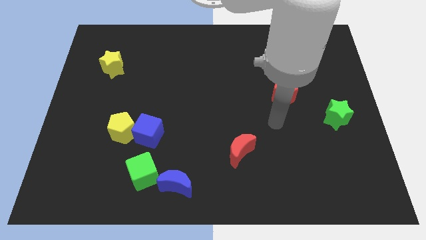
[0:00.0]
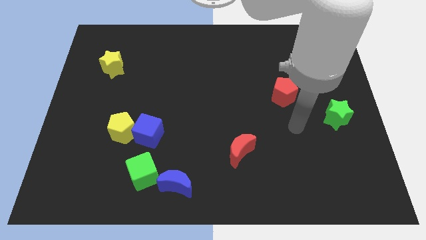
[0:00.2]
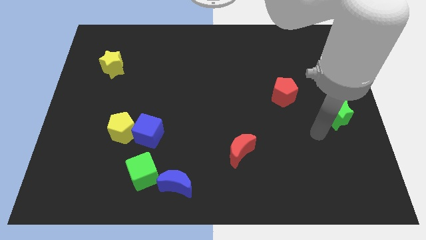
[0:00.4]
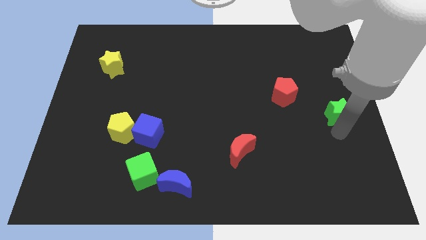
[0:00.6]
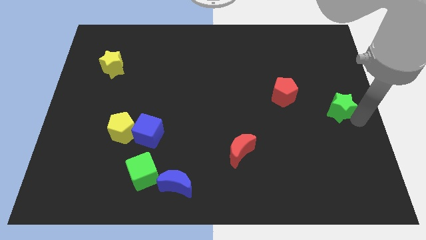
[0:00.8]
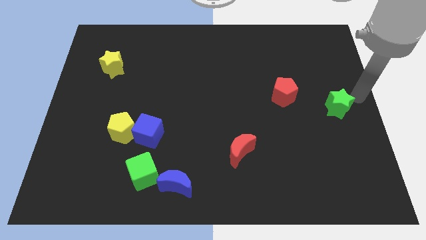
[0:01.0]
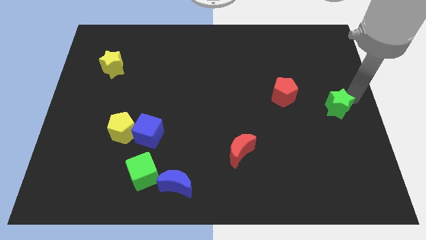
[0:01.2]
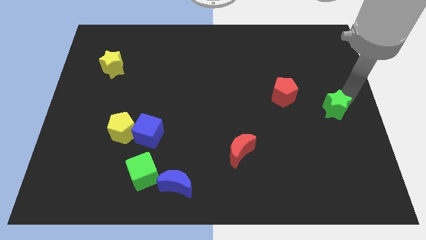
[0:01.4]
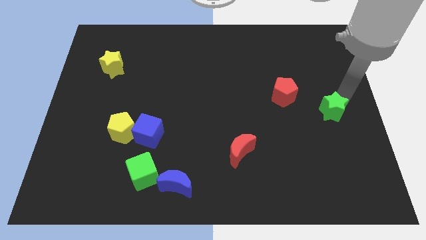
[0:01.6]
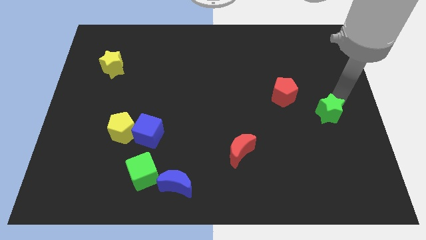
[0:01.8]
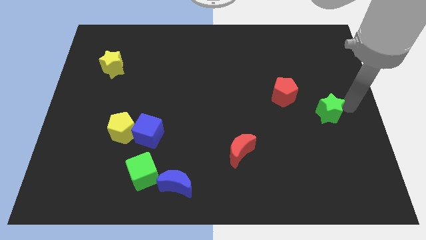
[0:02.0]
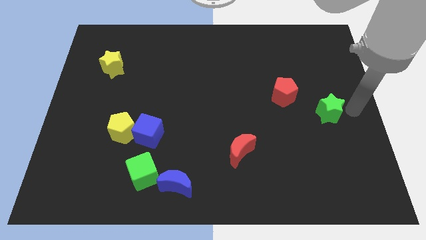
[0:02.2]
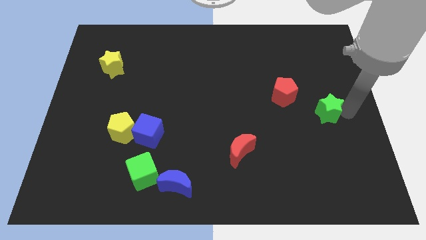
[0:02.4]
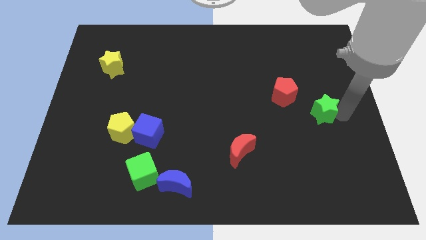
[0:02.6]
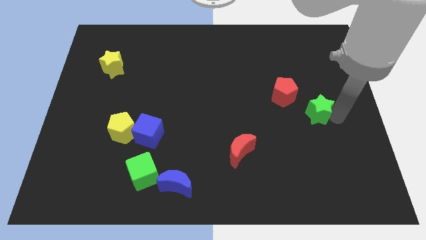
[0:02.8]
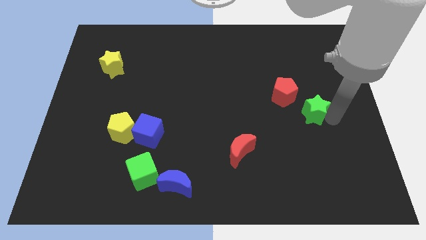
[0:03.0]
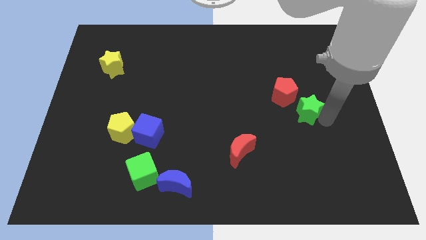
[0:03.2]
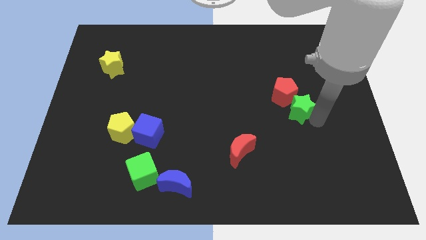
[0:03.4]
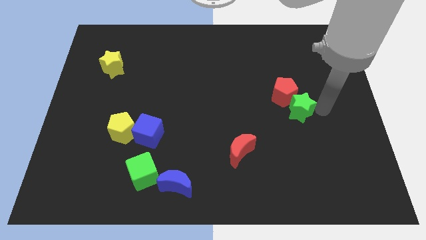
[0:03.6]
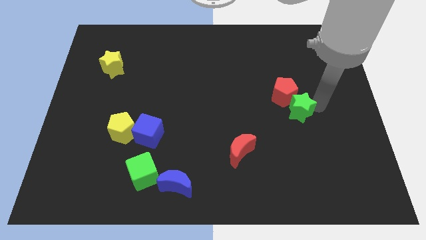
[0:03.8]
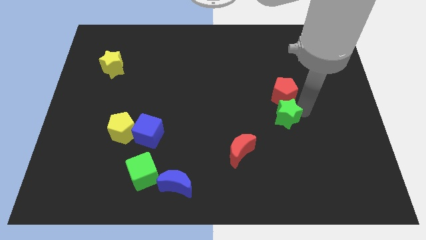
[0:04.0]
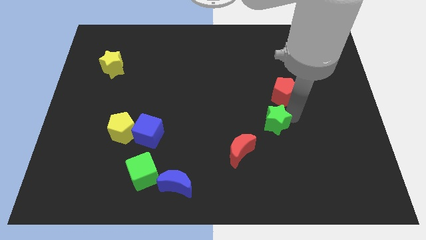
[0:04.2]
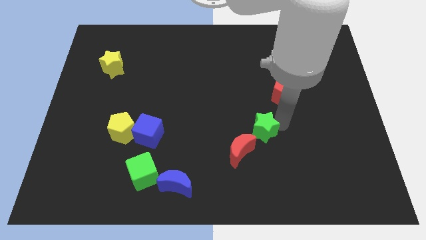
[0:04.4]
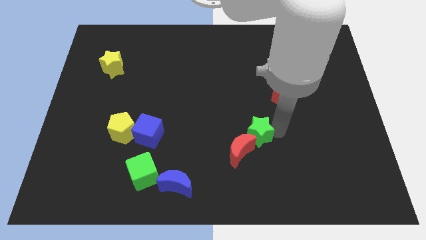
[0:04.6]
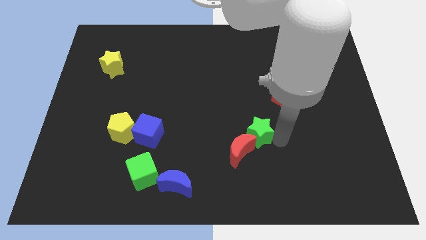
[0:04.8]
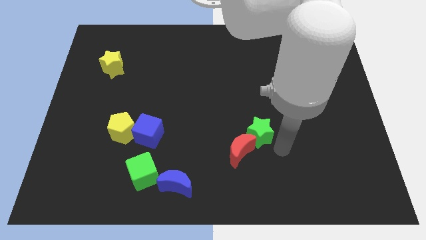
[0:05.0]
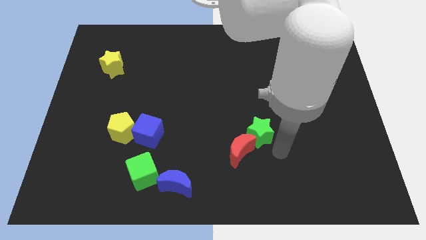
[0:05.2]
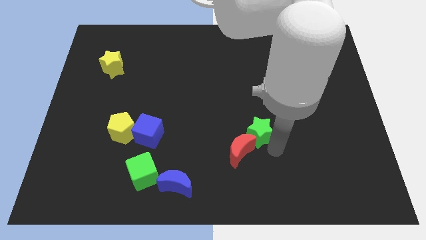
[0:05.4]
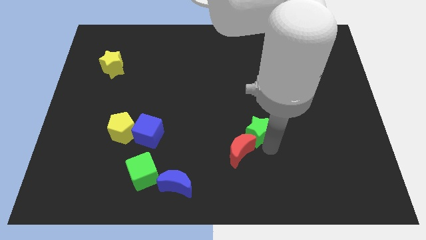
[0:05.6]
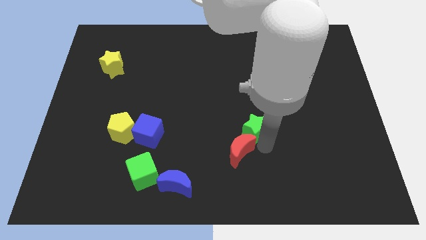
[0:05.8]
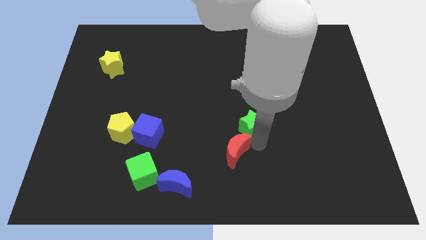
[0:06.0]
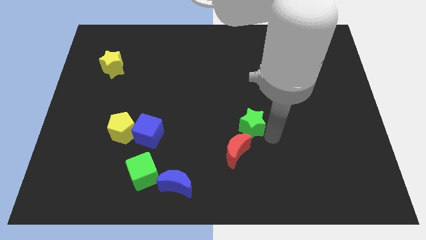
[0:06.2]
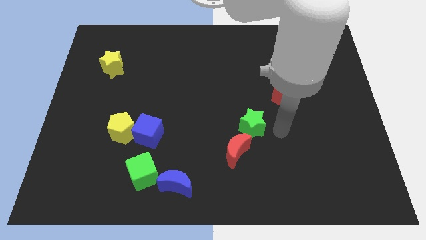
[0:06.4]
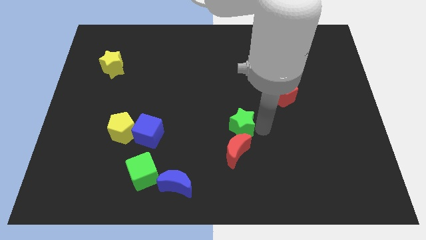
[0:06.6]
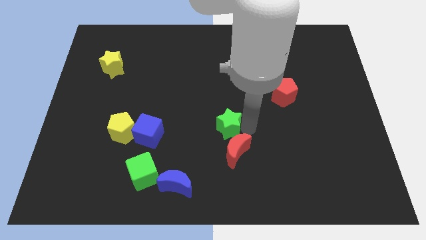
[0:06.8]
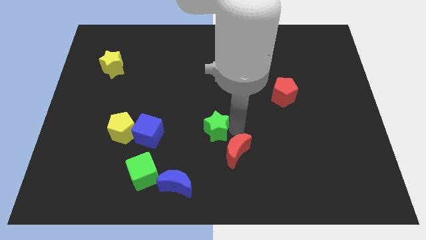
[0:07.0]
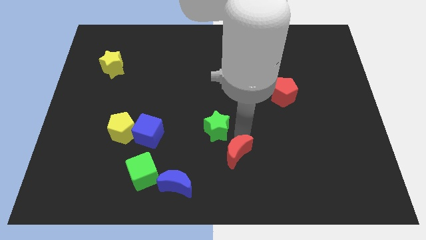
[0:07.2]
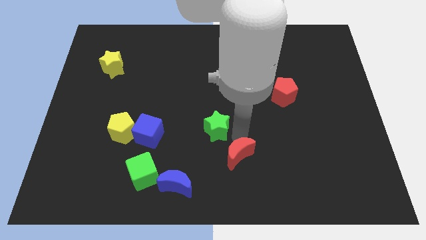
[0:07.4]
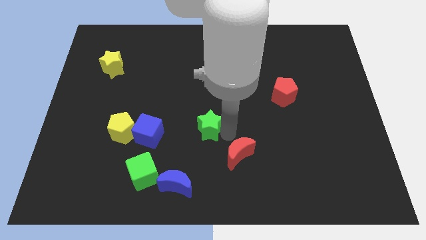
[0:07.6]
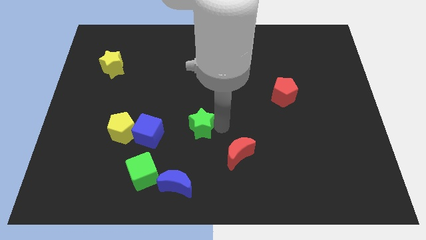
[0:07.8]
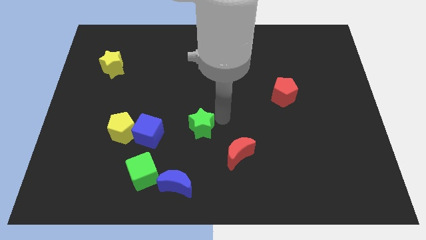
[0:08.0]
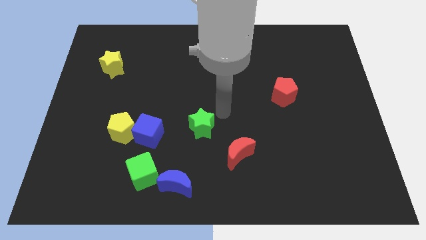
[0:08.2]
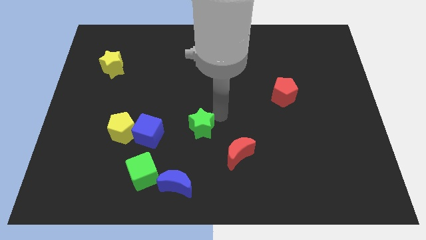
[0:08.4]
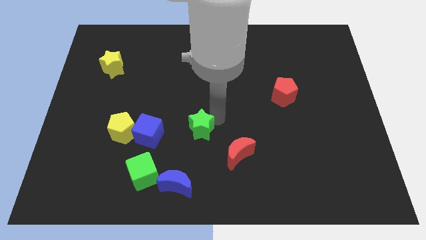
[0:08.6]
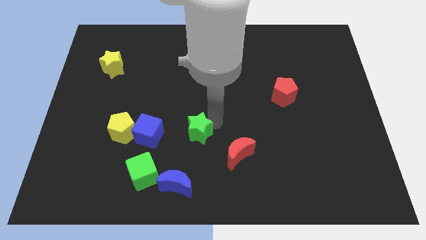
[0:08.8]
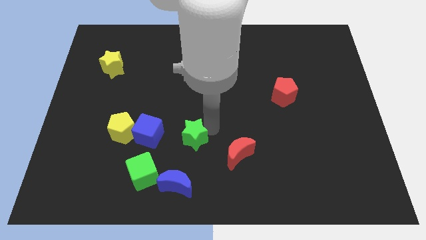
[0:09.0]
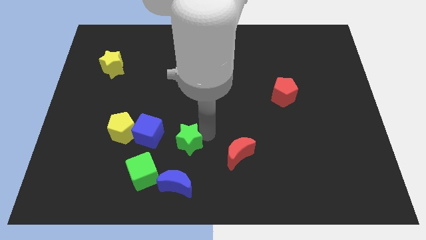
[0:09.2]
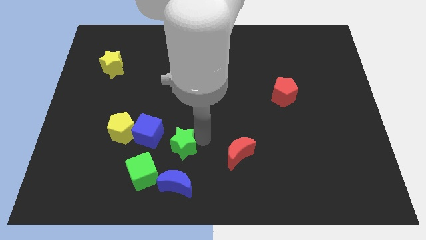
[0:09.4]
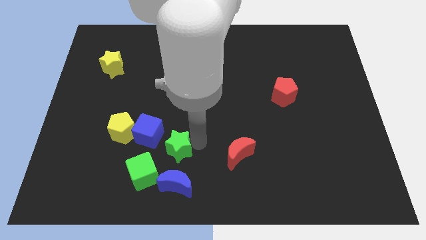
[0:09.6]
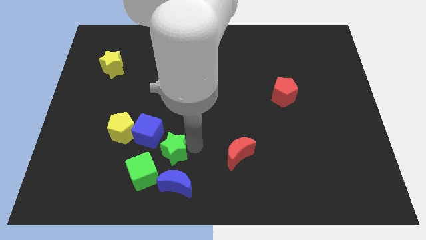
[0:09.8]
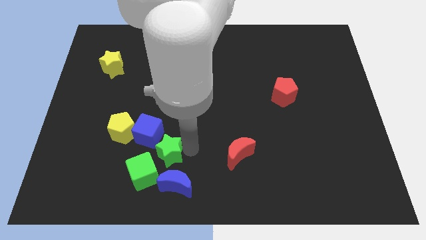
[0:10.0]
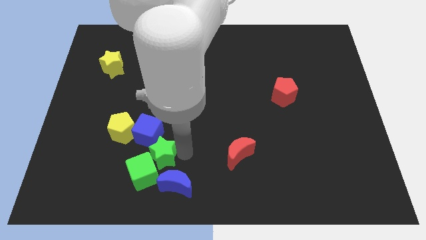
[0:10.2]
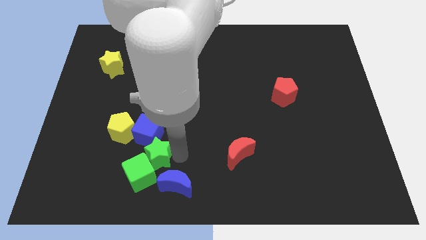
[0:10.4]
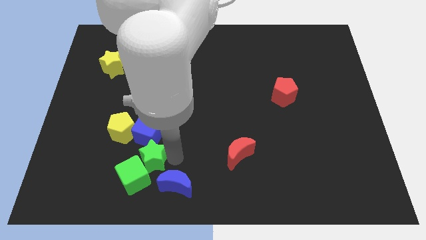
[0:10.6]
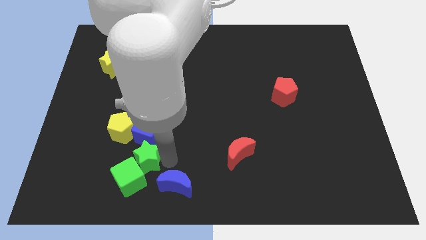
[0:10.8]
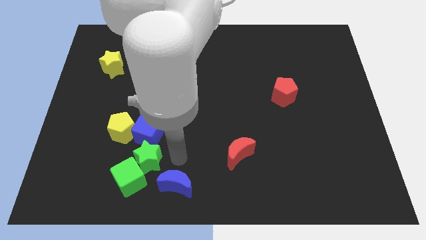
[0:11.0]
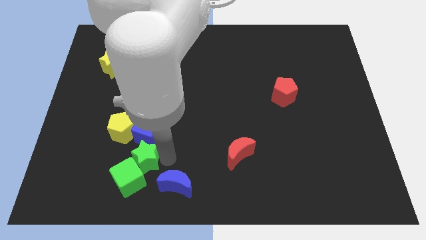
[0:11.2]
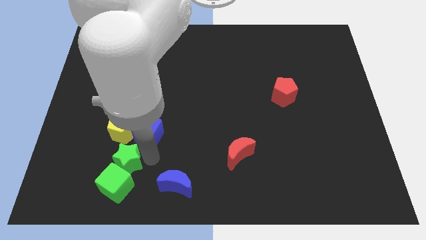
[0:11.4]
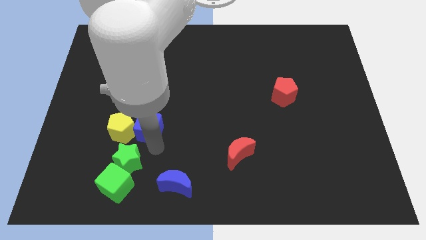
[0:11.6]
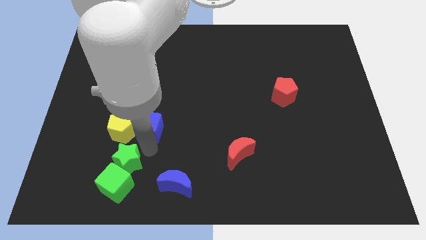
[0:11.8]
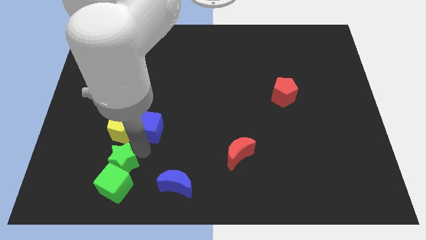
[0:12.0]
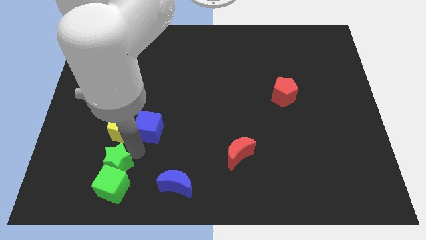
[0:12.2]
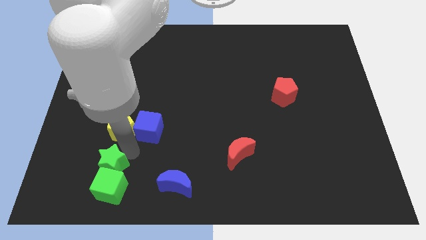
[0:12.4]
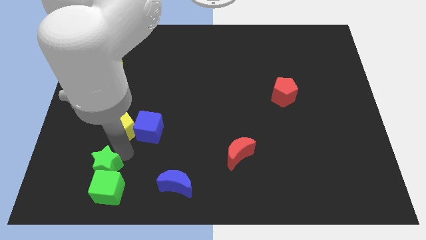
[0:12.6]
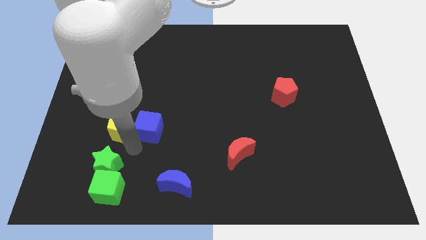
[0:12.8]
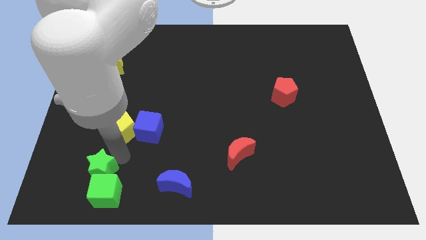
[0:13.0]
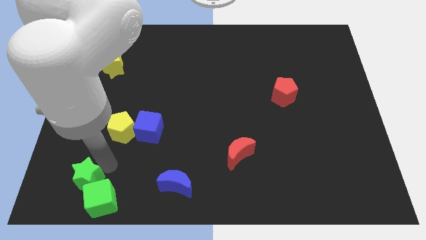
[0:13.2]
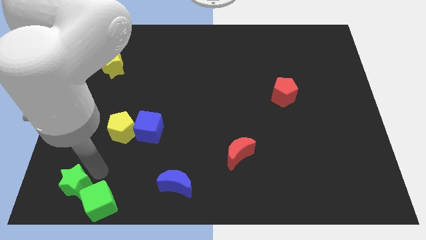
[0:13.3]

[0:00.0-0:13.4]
slide the green star to the bottom left corner
